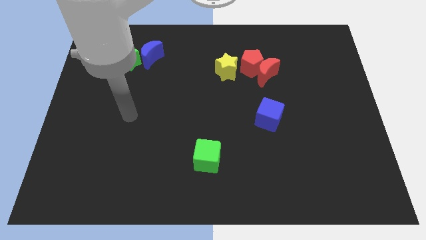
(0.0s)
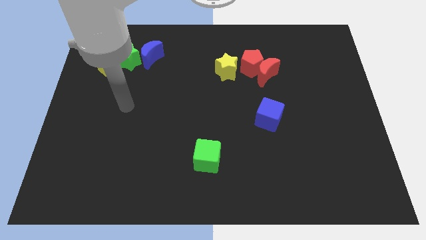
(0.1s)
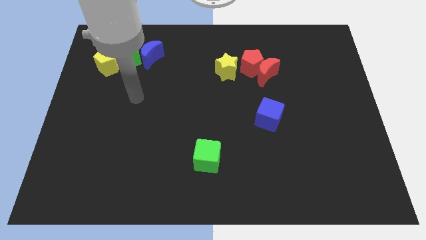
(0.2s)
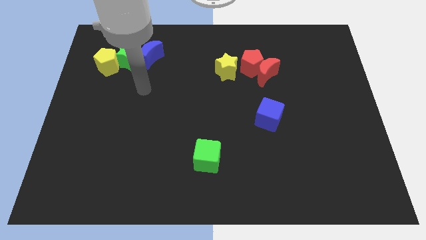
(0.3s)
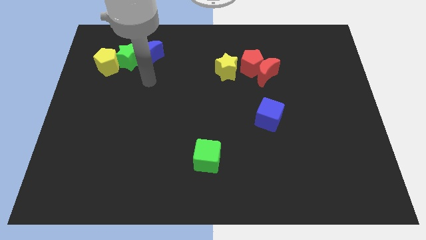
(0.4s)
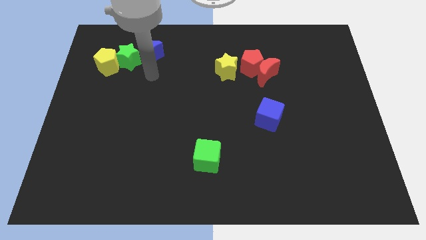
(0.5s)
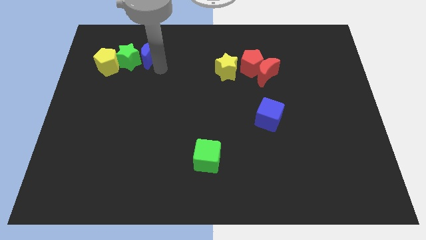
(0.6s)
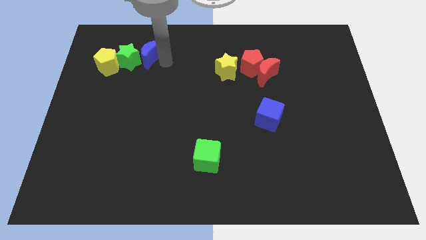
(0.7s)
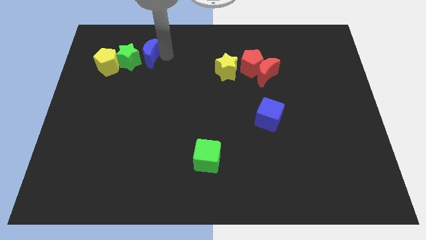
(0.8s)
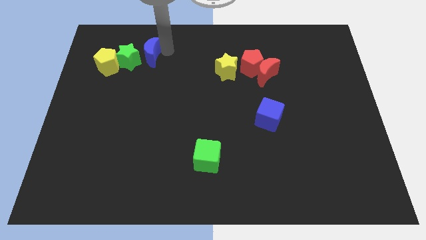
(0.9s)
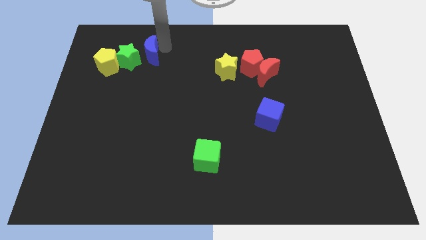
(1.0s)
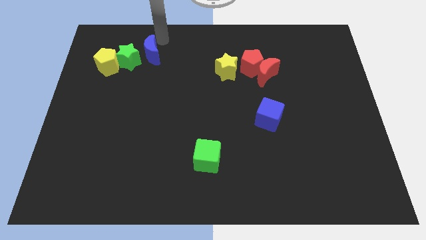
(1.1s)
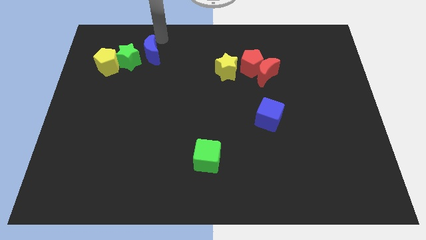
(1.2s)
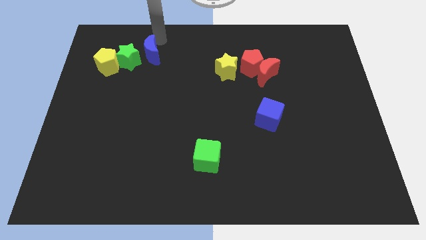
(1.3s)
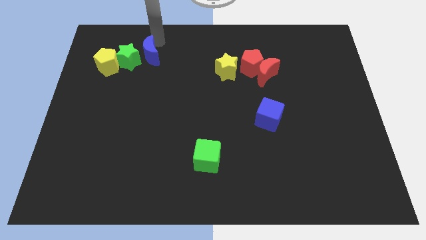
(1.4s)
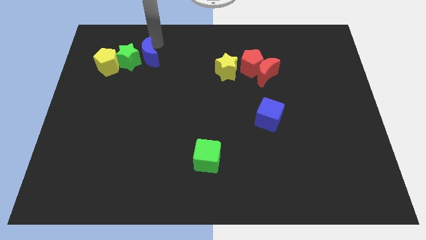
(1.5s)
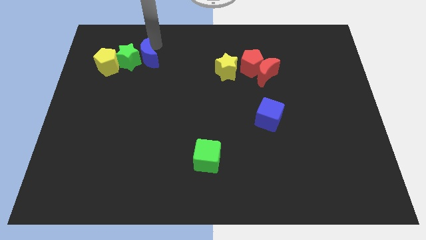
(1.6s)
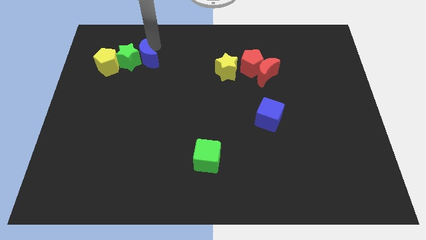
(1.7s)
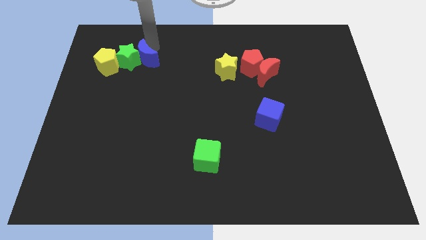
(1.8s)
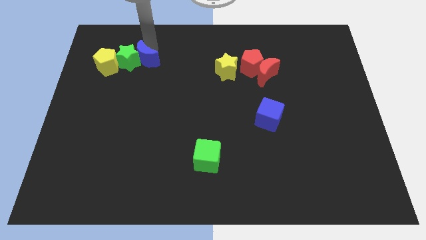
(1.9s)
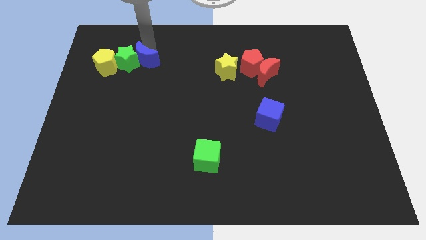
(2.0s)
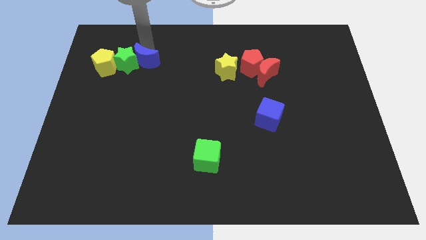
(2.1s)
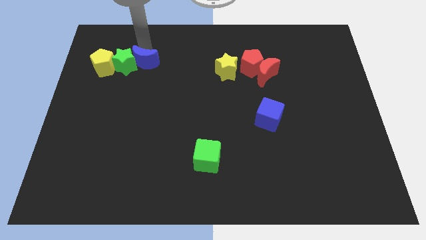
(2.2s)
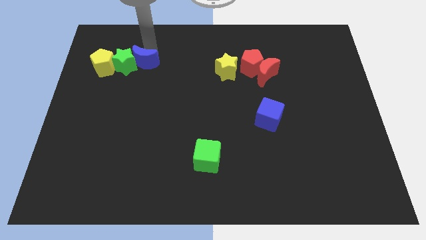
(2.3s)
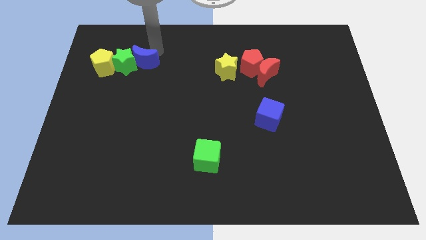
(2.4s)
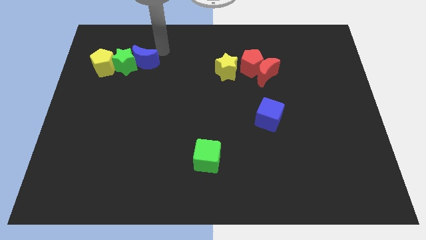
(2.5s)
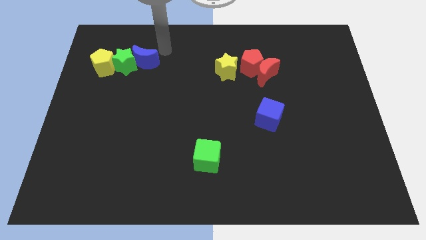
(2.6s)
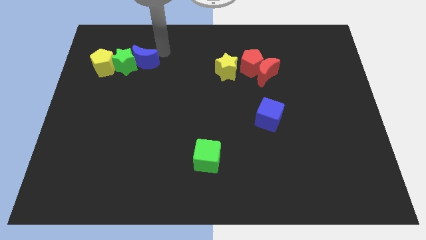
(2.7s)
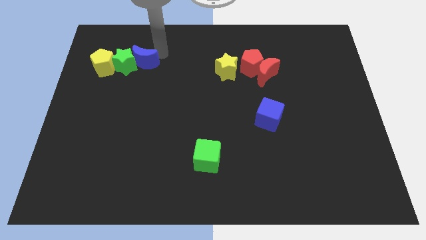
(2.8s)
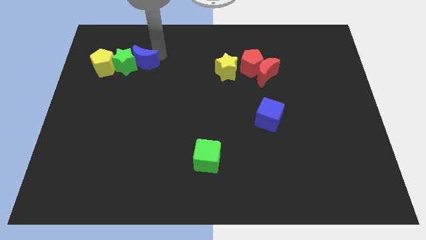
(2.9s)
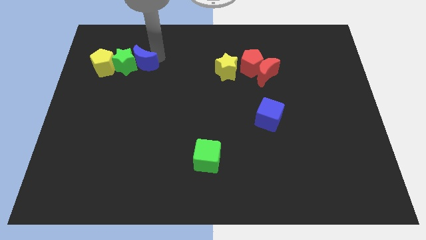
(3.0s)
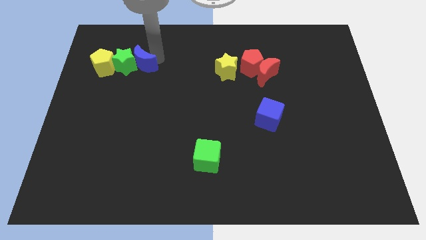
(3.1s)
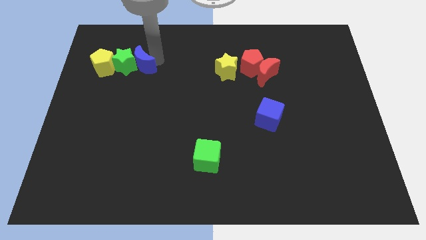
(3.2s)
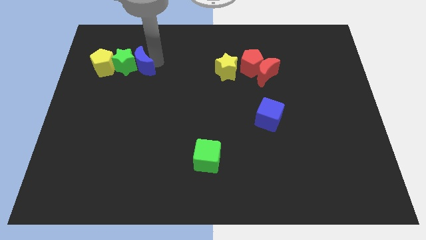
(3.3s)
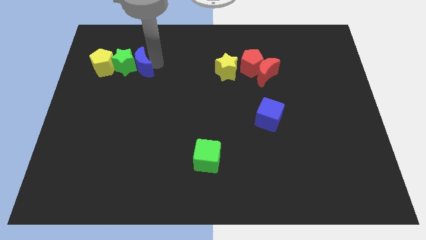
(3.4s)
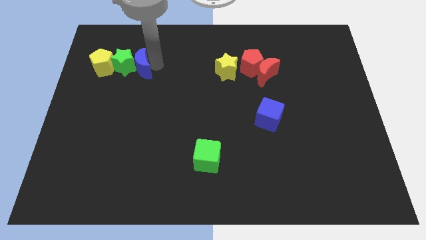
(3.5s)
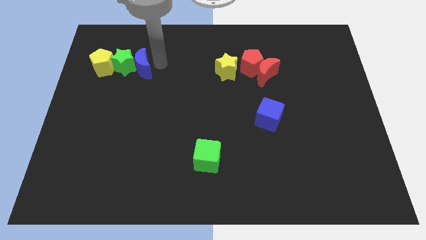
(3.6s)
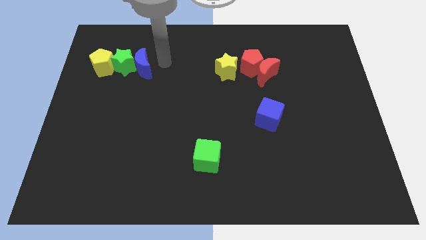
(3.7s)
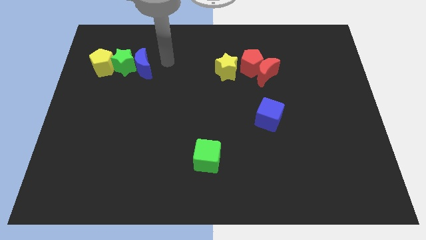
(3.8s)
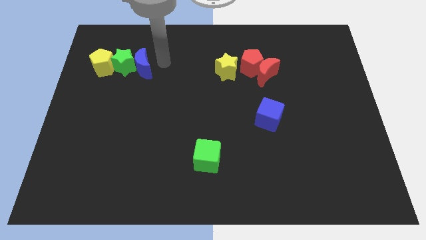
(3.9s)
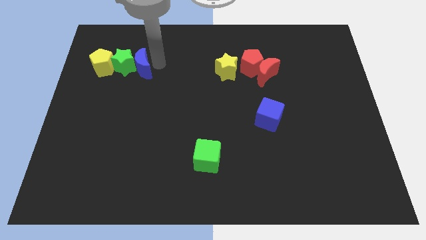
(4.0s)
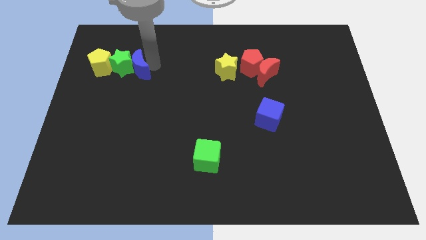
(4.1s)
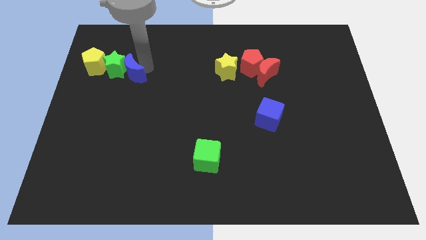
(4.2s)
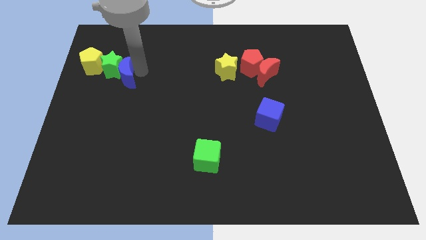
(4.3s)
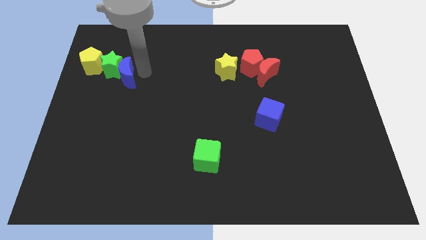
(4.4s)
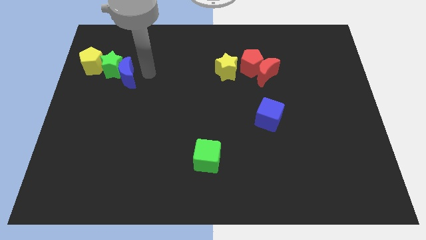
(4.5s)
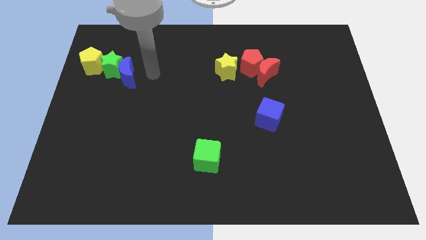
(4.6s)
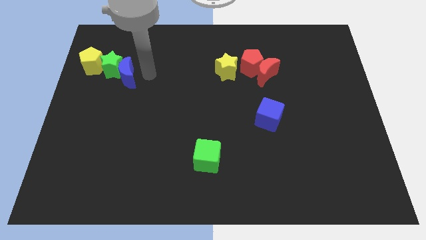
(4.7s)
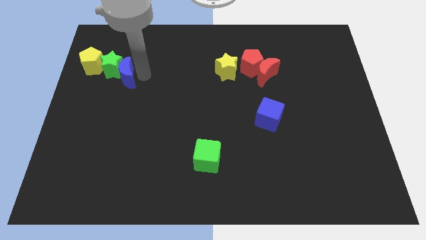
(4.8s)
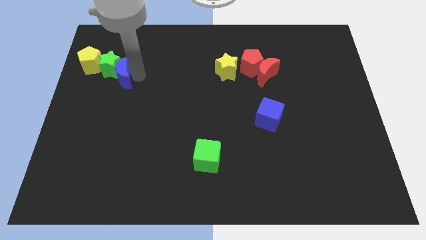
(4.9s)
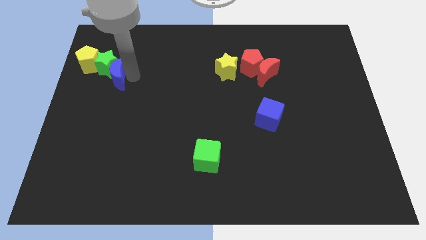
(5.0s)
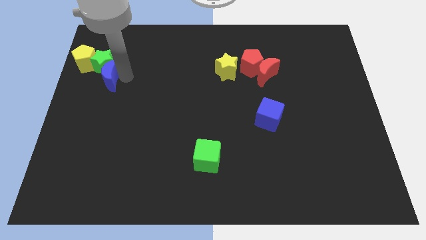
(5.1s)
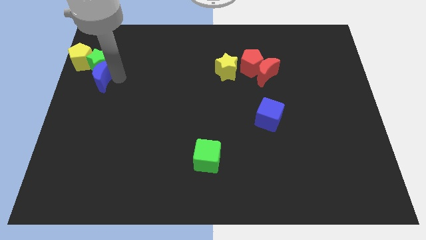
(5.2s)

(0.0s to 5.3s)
put the blue moon to the left side

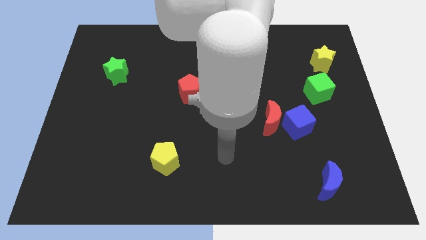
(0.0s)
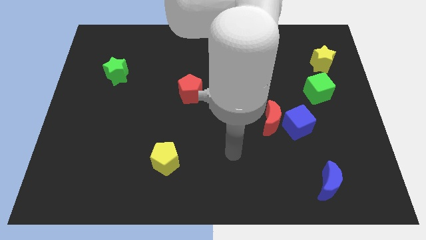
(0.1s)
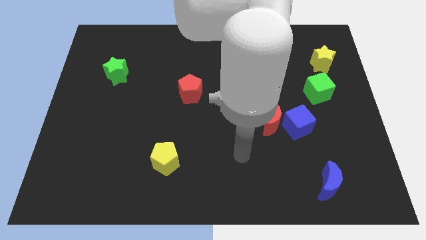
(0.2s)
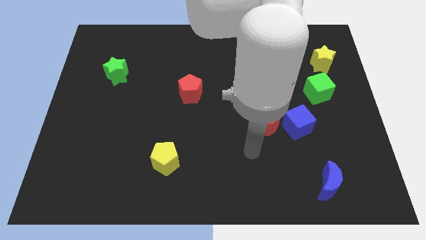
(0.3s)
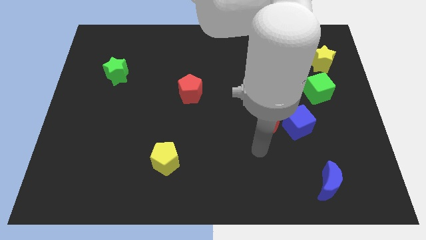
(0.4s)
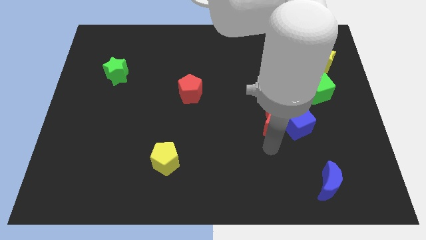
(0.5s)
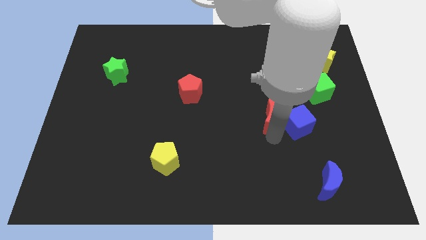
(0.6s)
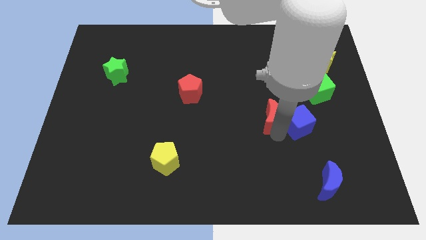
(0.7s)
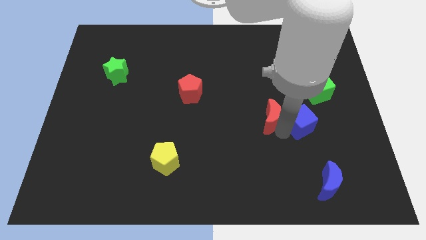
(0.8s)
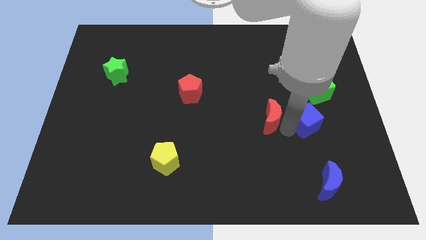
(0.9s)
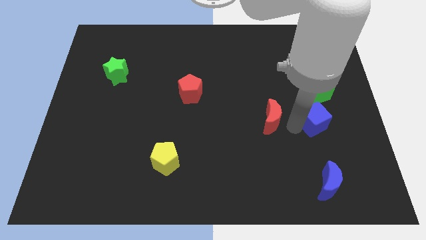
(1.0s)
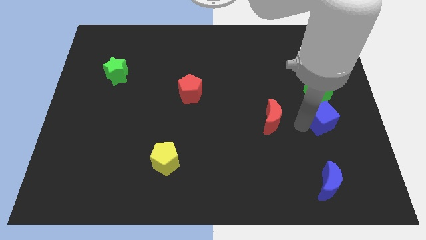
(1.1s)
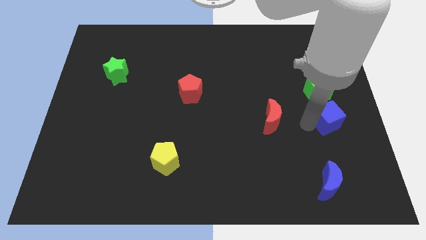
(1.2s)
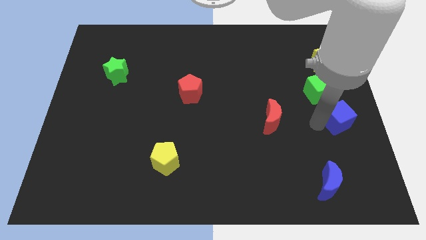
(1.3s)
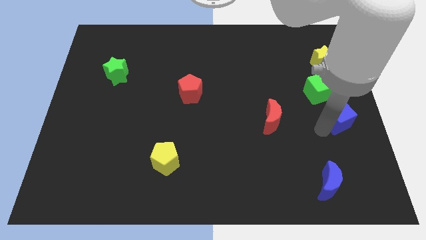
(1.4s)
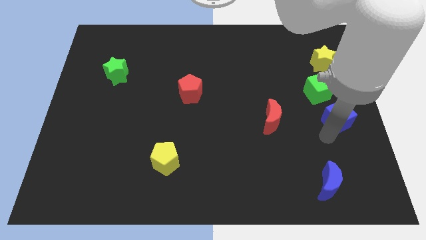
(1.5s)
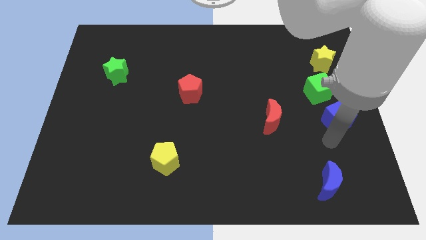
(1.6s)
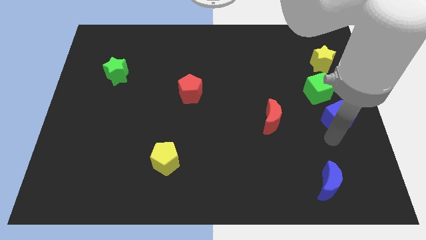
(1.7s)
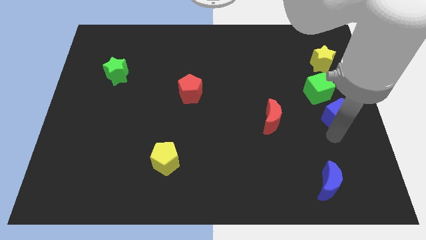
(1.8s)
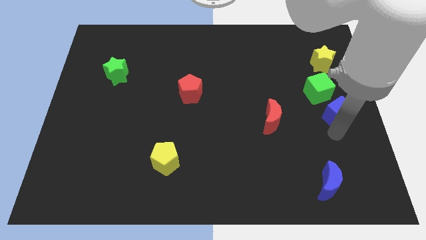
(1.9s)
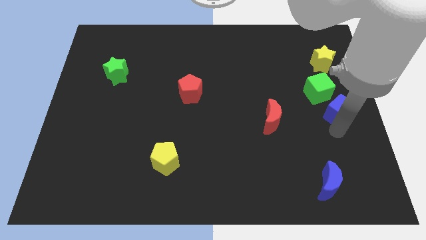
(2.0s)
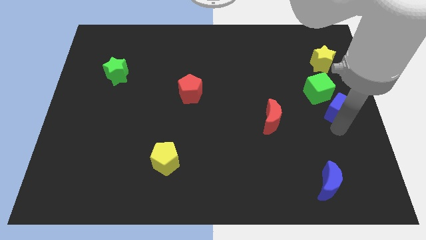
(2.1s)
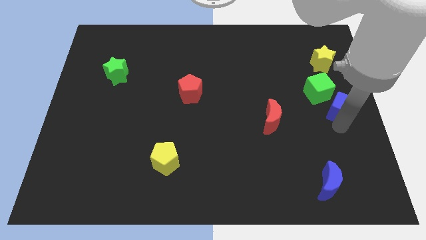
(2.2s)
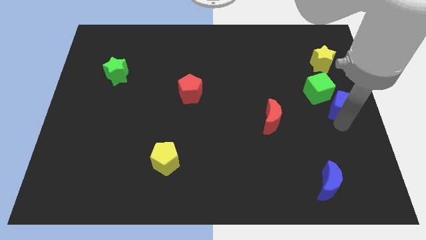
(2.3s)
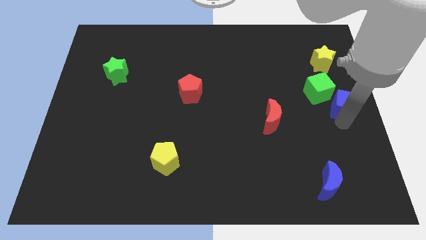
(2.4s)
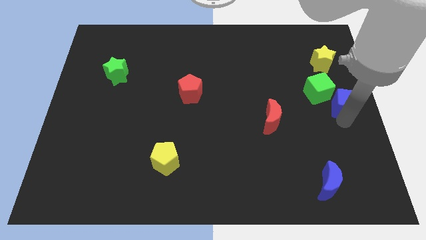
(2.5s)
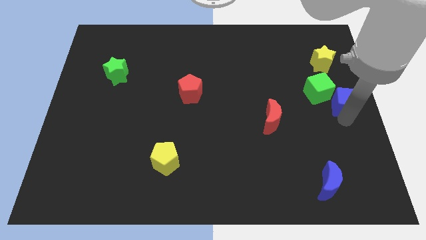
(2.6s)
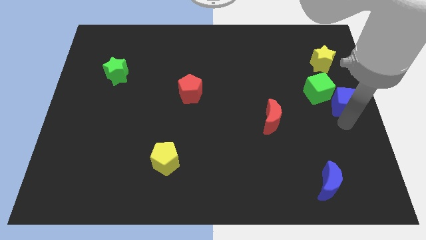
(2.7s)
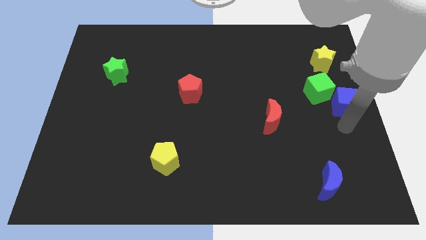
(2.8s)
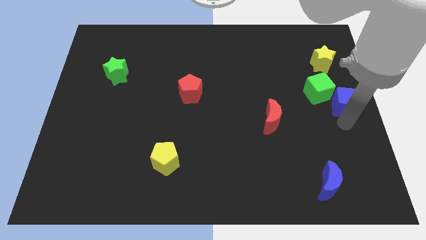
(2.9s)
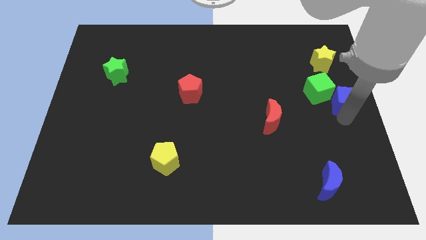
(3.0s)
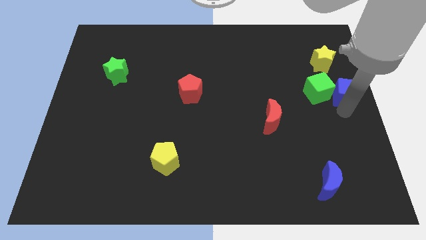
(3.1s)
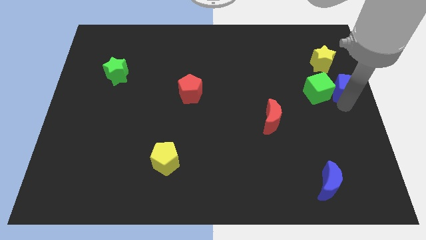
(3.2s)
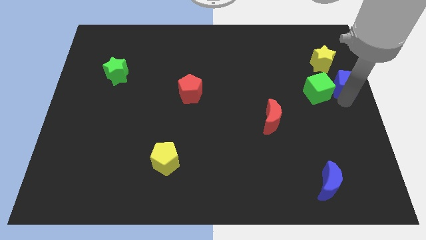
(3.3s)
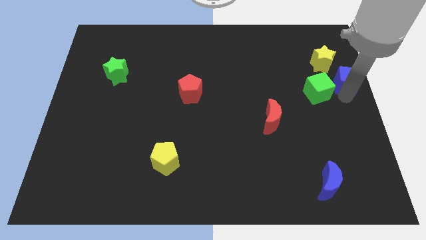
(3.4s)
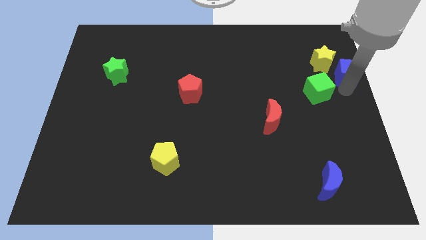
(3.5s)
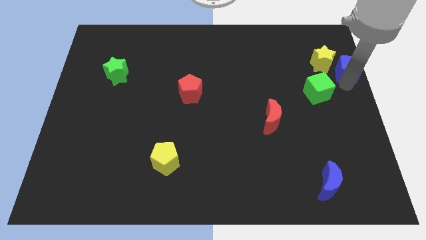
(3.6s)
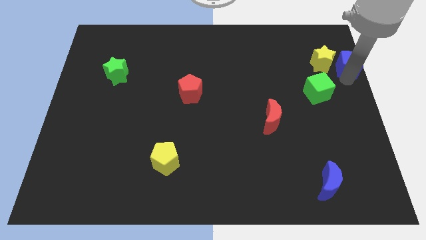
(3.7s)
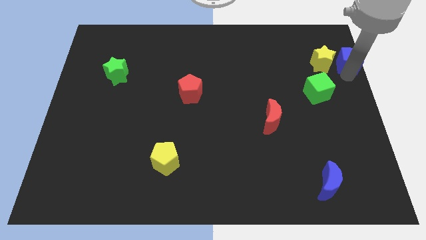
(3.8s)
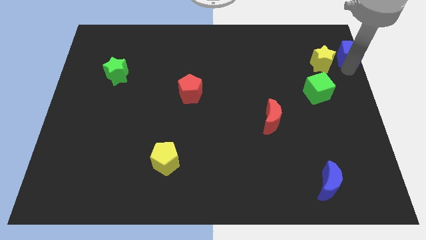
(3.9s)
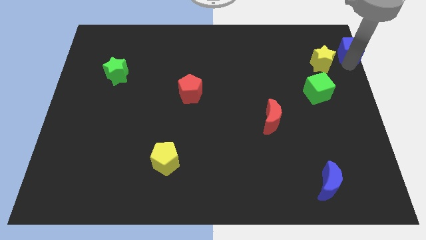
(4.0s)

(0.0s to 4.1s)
put the blue cube to the top right
